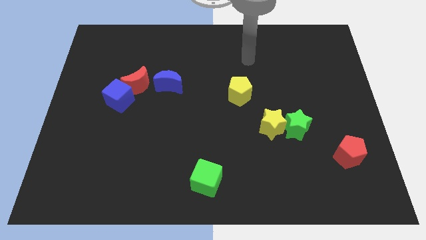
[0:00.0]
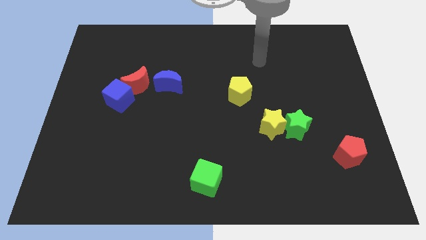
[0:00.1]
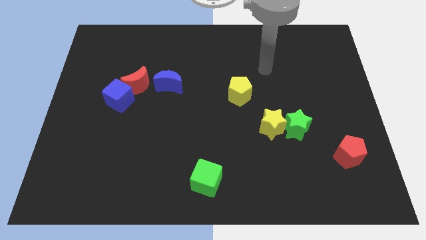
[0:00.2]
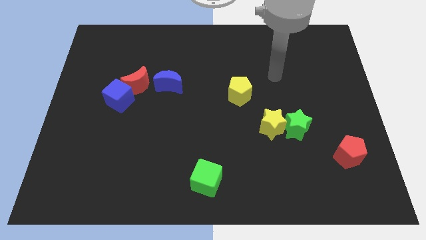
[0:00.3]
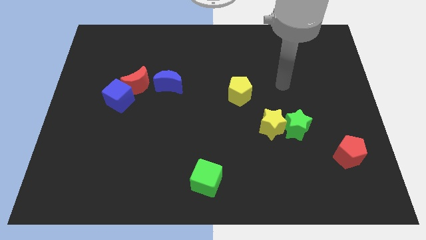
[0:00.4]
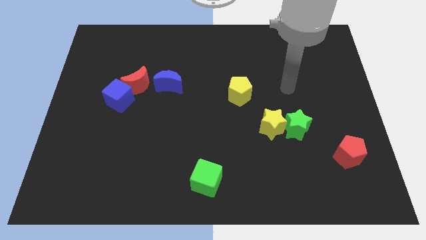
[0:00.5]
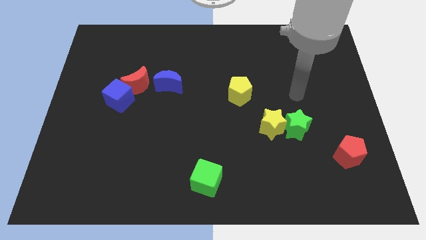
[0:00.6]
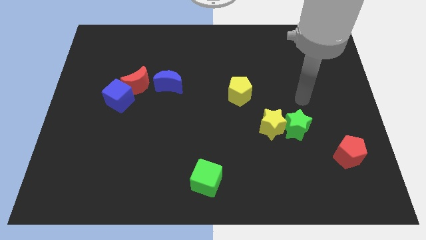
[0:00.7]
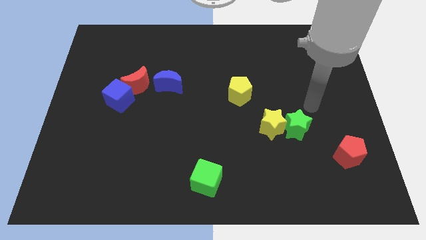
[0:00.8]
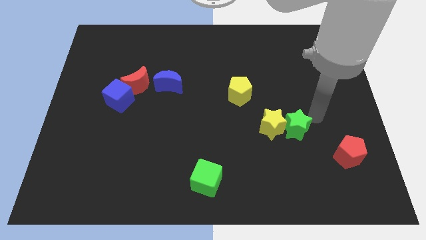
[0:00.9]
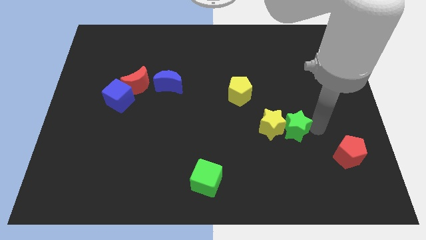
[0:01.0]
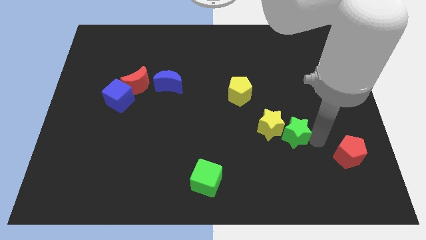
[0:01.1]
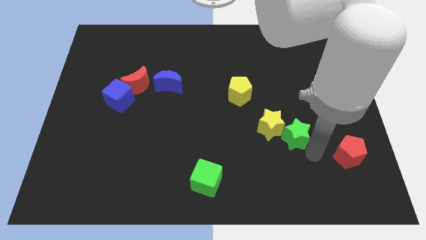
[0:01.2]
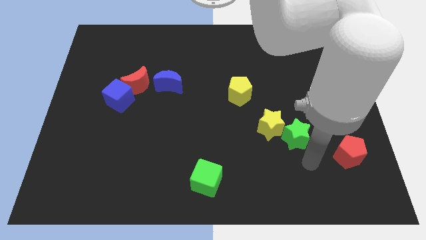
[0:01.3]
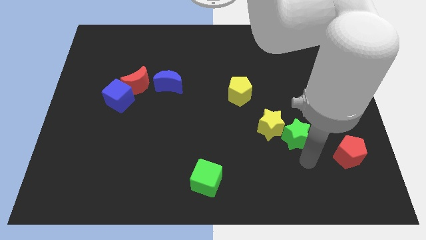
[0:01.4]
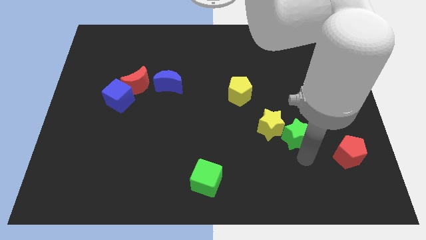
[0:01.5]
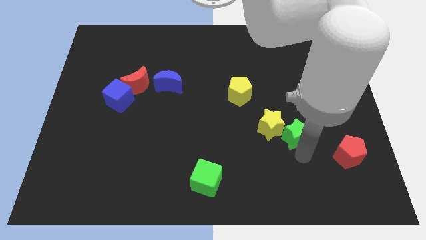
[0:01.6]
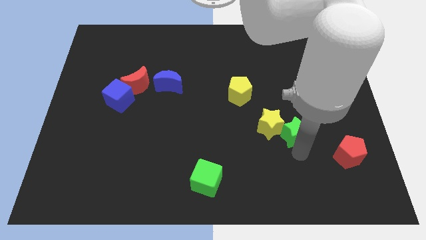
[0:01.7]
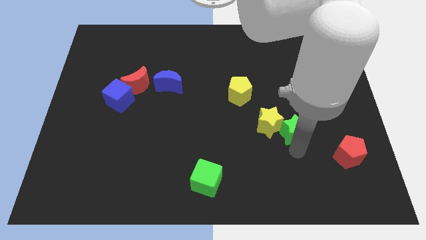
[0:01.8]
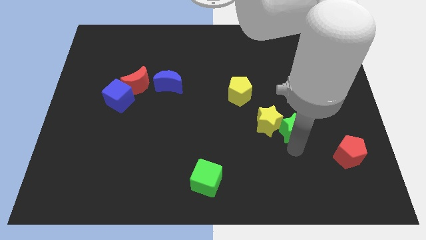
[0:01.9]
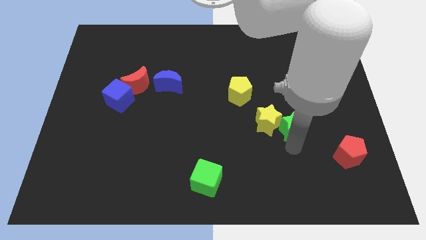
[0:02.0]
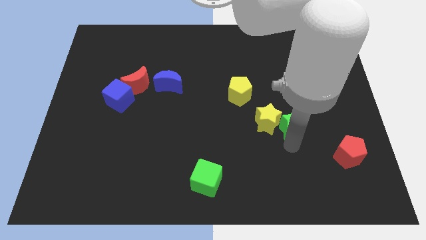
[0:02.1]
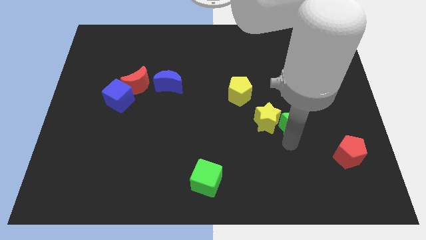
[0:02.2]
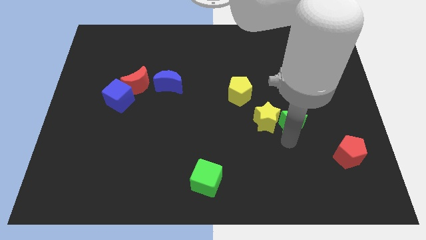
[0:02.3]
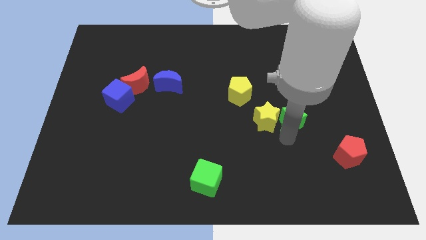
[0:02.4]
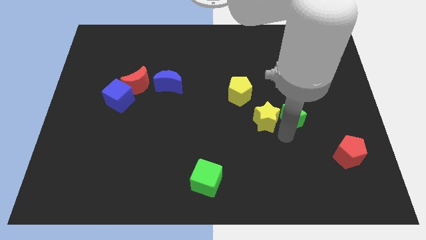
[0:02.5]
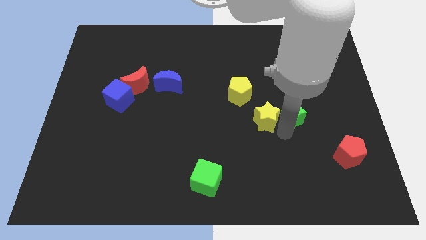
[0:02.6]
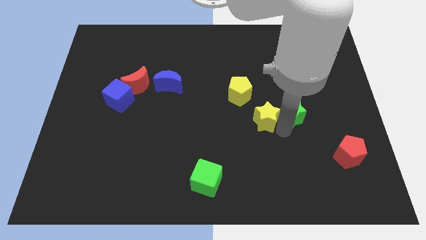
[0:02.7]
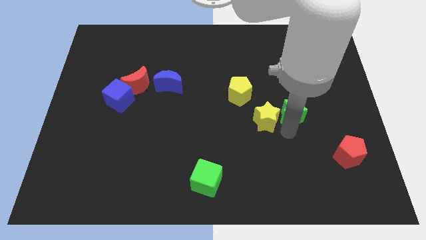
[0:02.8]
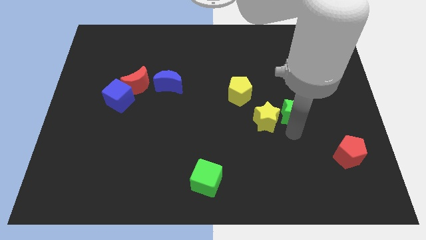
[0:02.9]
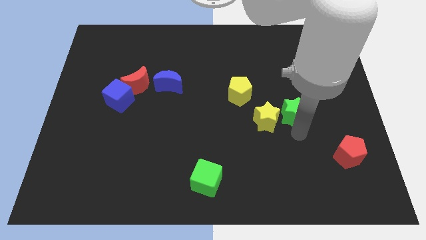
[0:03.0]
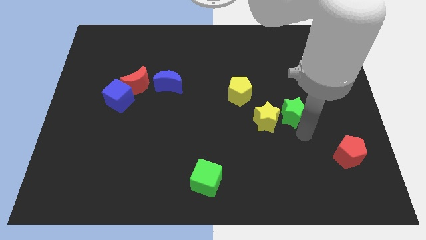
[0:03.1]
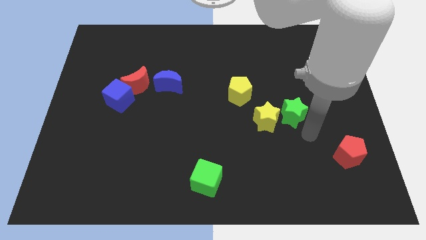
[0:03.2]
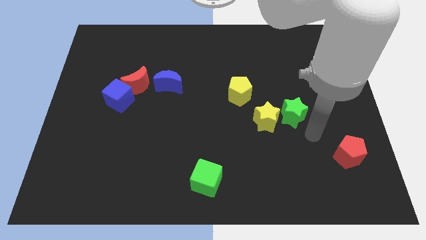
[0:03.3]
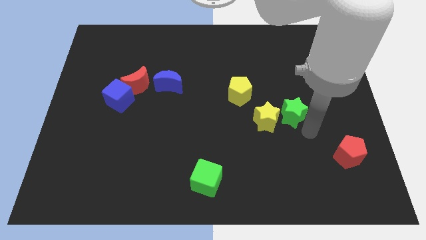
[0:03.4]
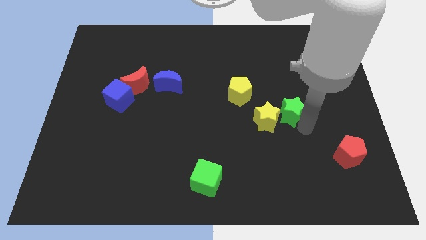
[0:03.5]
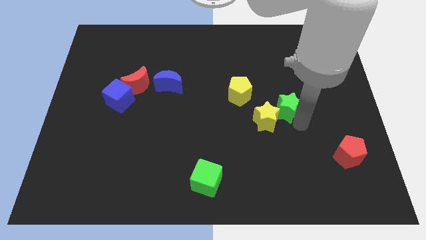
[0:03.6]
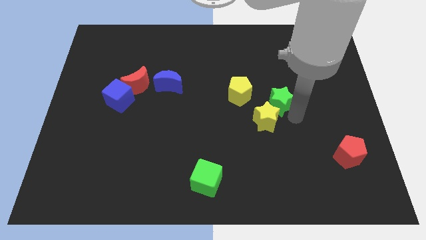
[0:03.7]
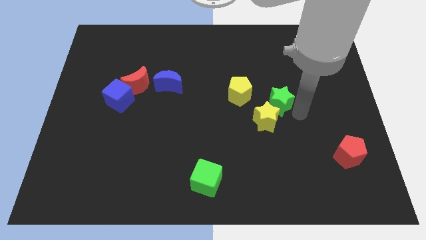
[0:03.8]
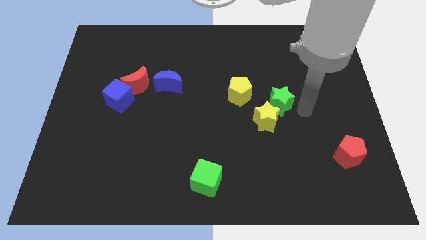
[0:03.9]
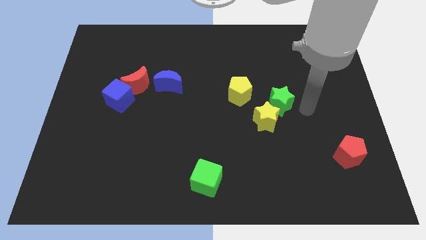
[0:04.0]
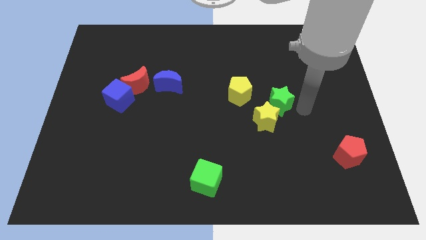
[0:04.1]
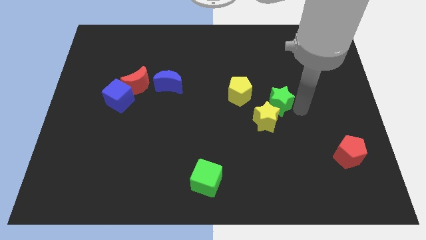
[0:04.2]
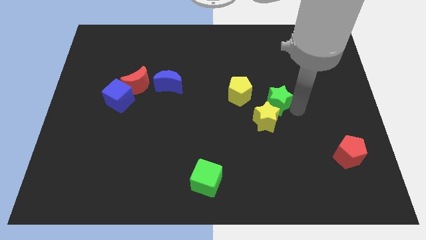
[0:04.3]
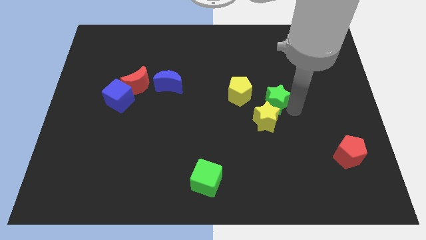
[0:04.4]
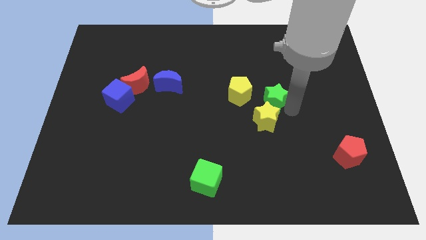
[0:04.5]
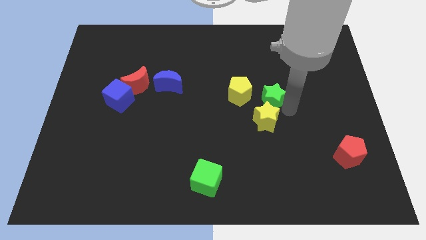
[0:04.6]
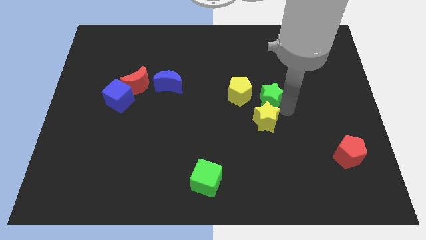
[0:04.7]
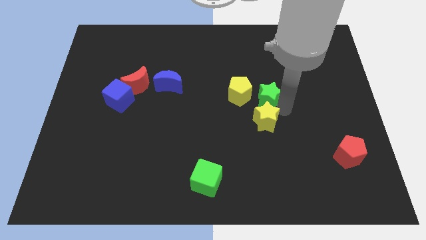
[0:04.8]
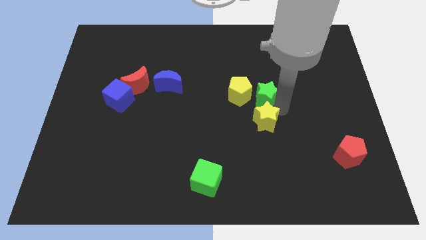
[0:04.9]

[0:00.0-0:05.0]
push the green star to the yellow pentagon

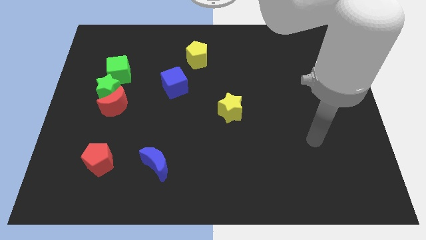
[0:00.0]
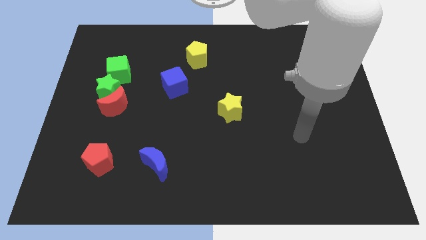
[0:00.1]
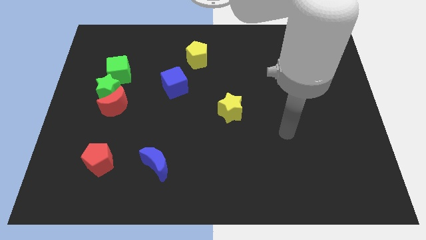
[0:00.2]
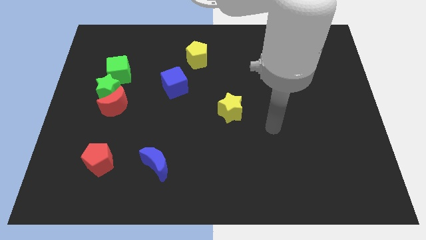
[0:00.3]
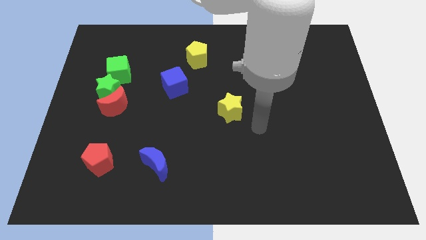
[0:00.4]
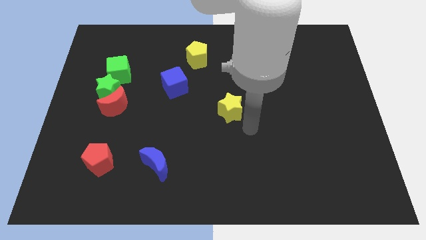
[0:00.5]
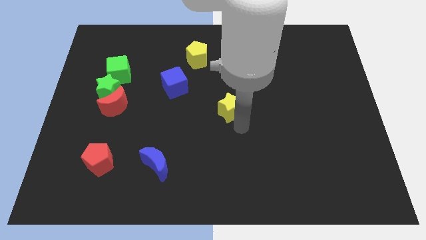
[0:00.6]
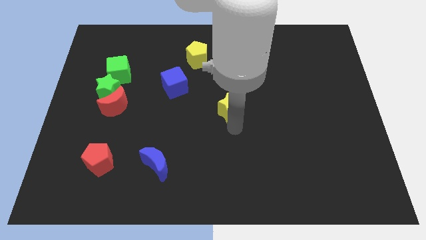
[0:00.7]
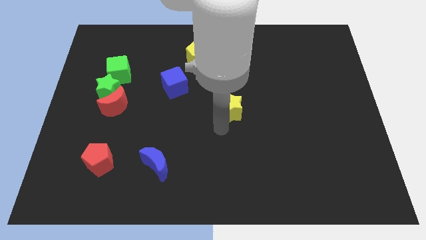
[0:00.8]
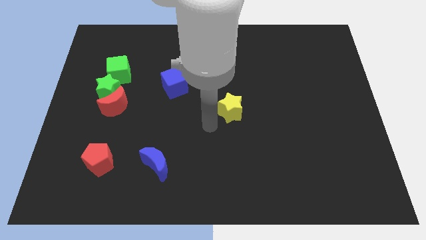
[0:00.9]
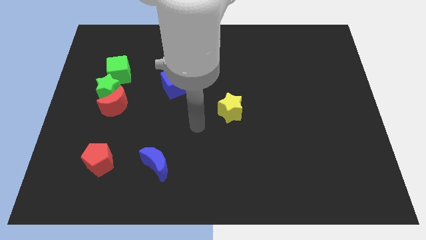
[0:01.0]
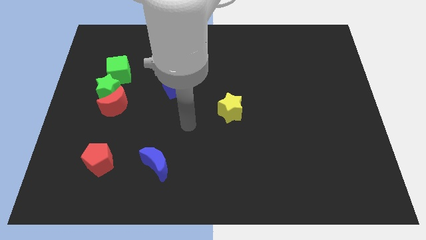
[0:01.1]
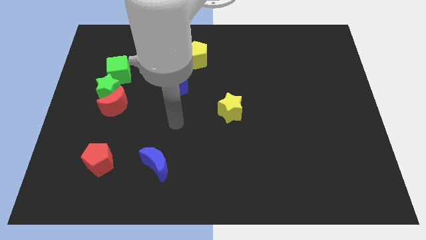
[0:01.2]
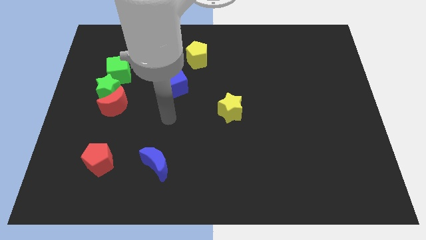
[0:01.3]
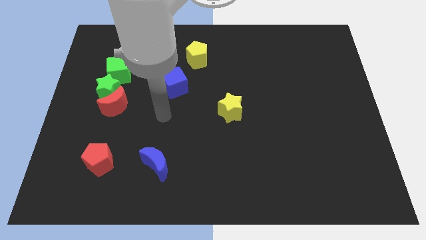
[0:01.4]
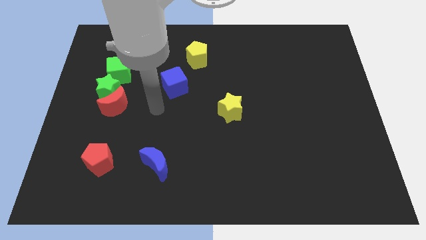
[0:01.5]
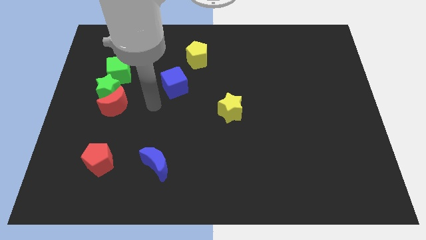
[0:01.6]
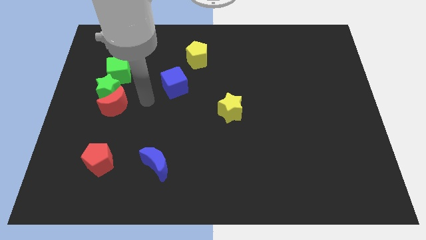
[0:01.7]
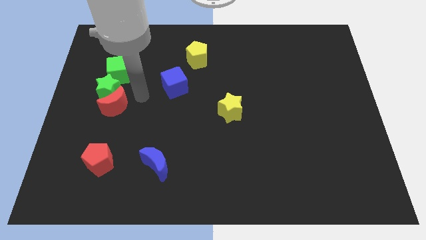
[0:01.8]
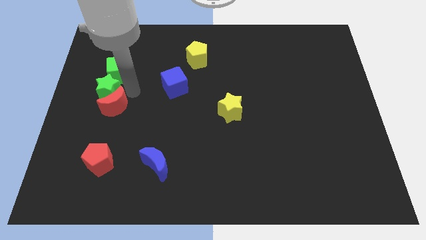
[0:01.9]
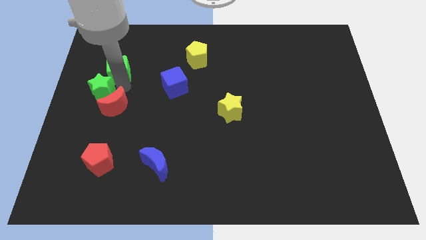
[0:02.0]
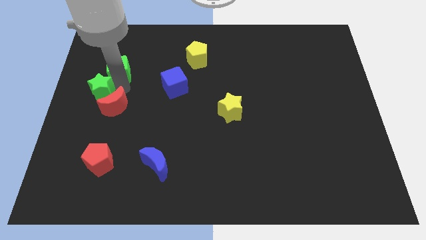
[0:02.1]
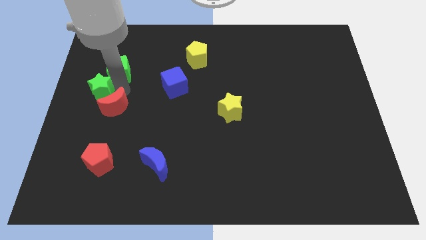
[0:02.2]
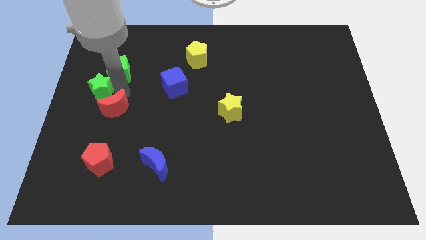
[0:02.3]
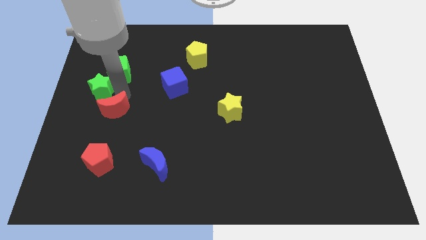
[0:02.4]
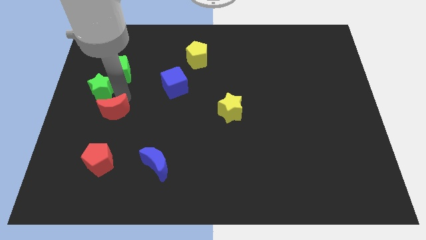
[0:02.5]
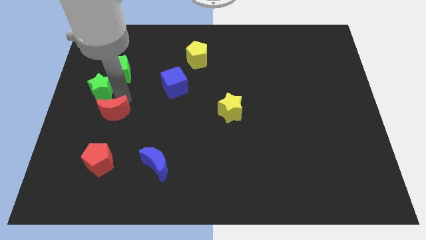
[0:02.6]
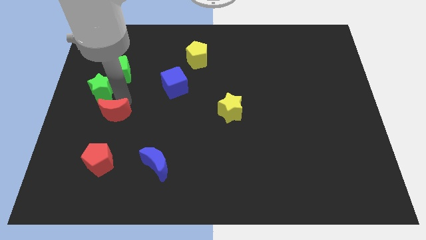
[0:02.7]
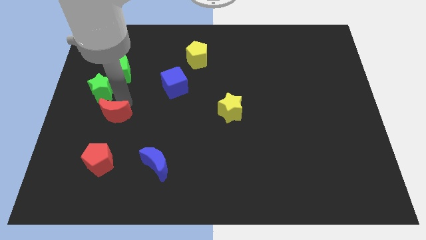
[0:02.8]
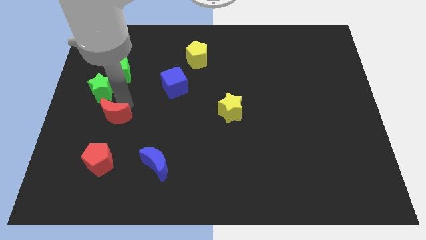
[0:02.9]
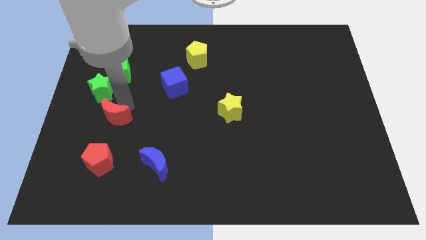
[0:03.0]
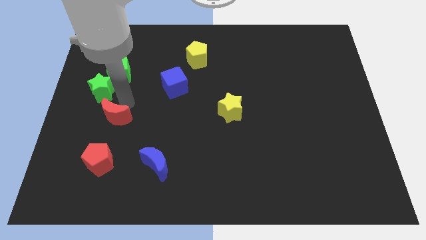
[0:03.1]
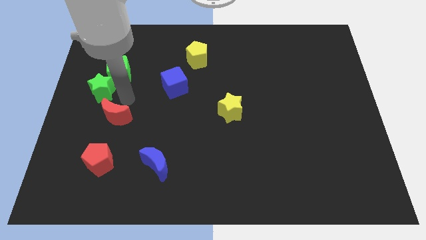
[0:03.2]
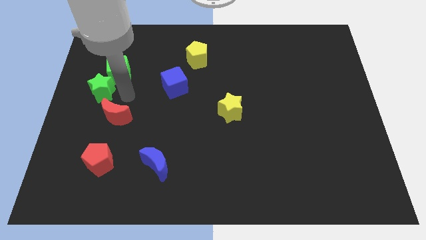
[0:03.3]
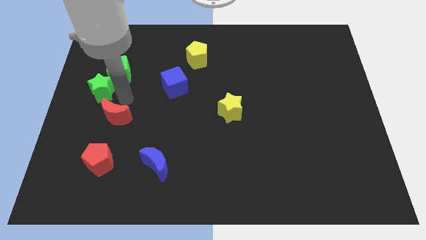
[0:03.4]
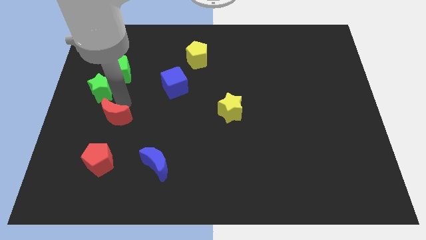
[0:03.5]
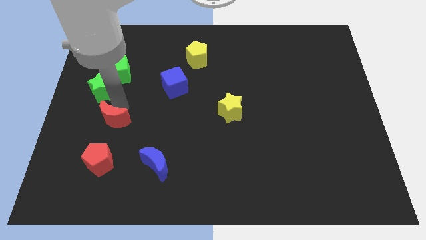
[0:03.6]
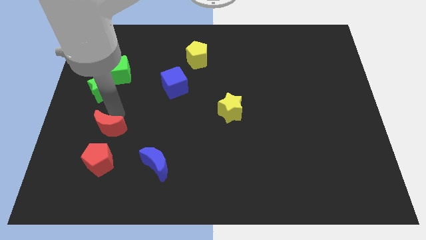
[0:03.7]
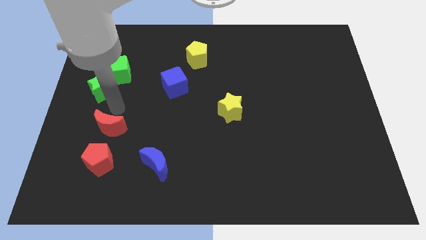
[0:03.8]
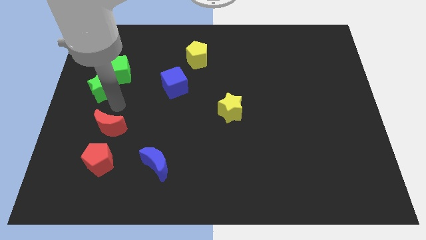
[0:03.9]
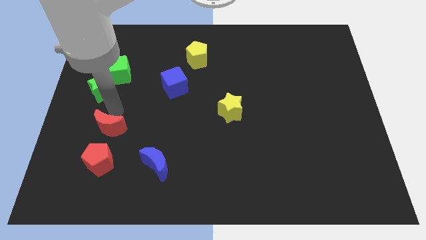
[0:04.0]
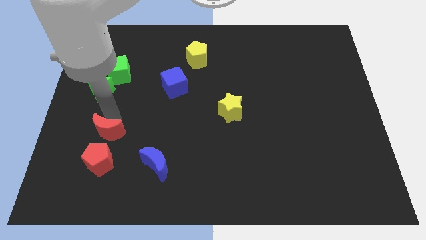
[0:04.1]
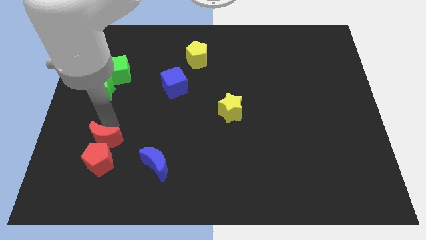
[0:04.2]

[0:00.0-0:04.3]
slide the red moon towards the red pentagon
